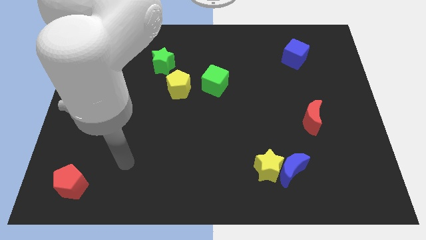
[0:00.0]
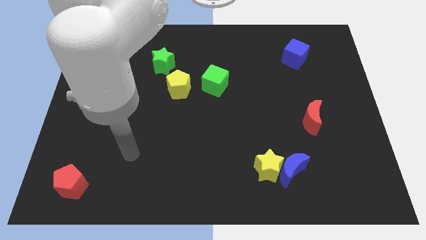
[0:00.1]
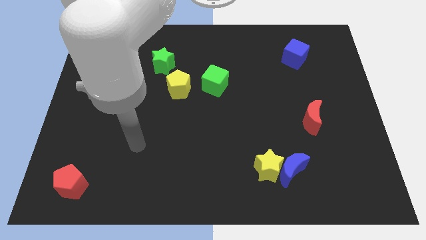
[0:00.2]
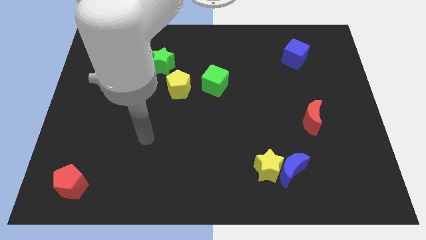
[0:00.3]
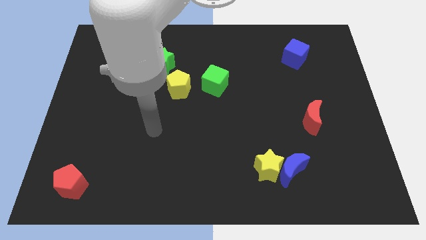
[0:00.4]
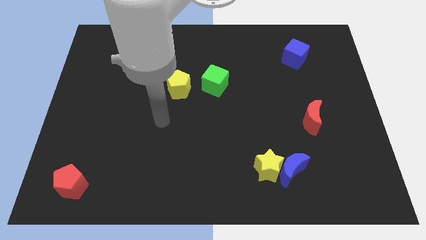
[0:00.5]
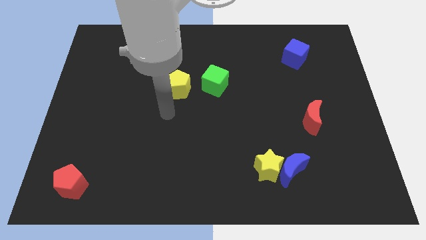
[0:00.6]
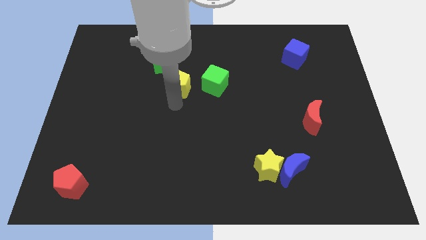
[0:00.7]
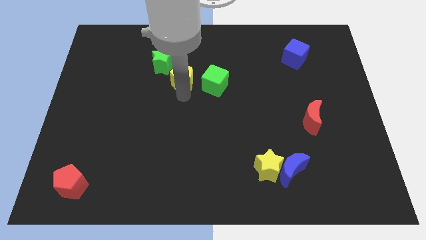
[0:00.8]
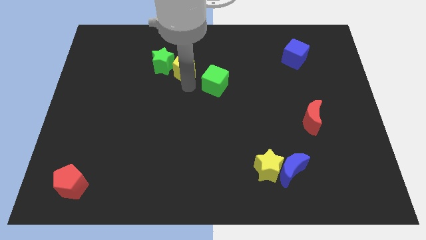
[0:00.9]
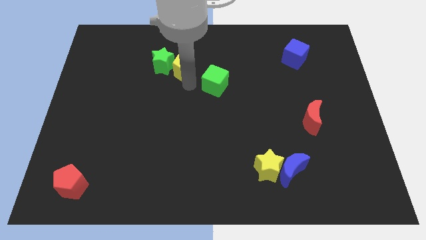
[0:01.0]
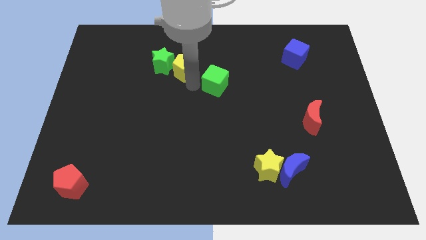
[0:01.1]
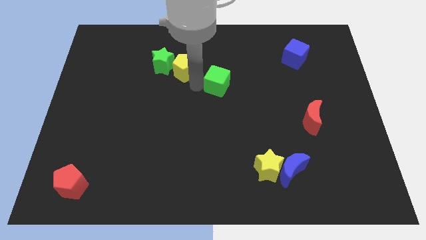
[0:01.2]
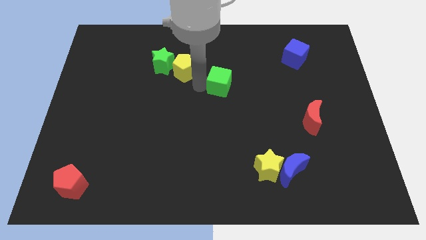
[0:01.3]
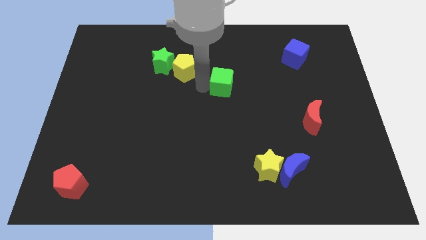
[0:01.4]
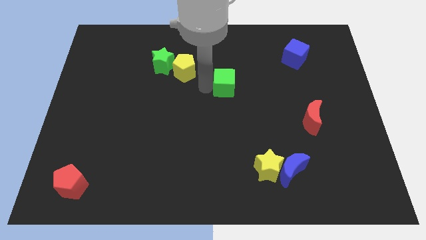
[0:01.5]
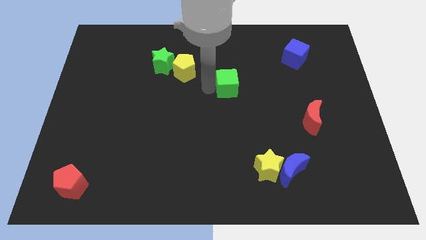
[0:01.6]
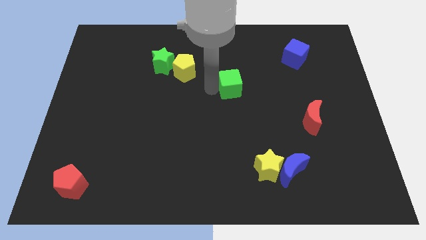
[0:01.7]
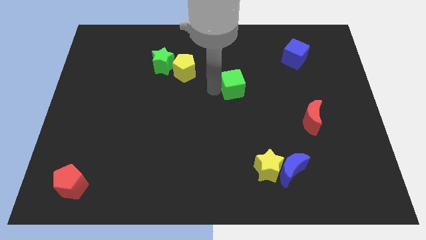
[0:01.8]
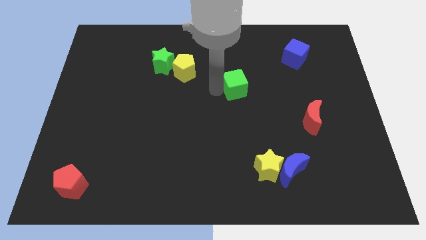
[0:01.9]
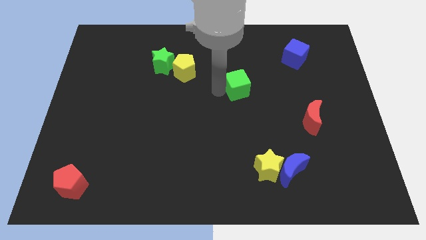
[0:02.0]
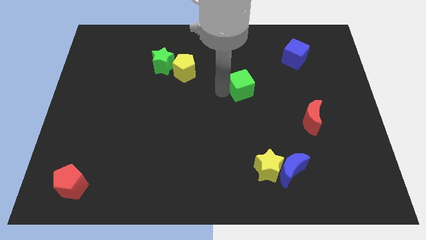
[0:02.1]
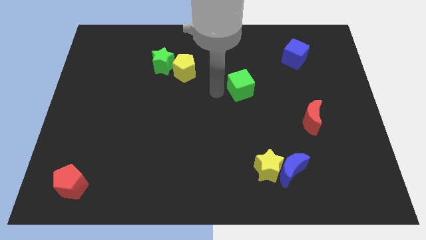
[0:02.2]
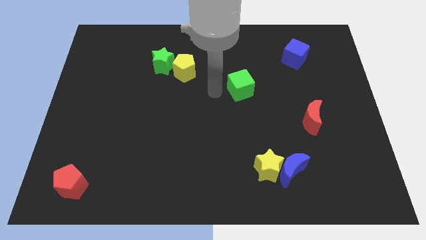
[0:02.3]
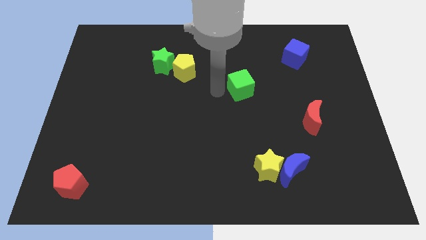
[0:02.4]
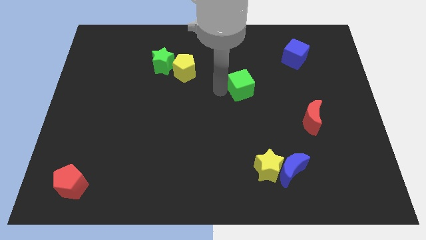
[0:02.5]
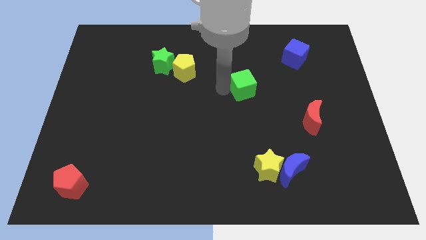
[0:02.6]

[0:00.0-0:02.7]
slide the green cube slightly right

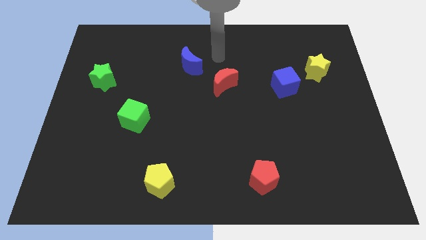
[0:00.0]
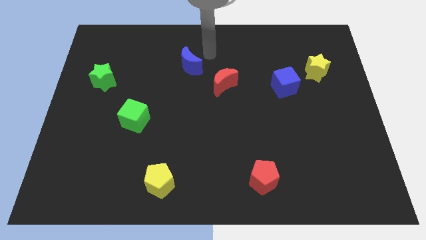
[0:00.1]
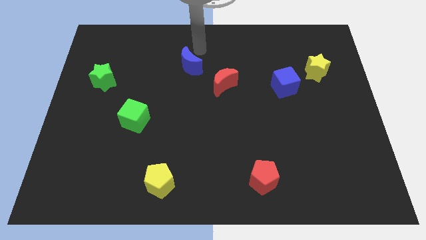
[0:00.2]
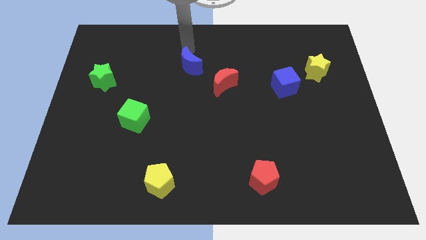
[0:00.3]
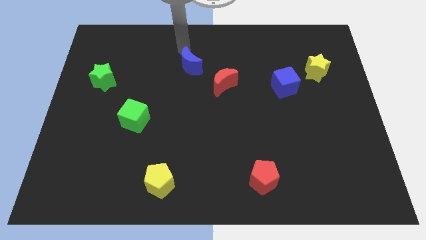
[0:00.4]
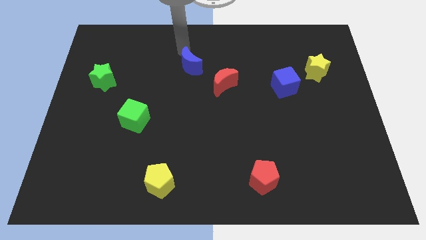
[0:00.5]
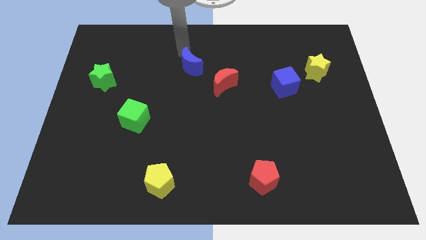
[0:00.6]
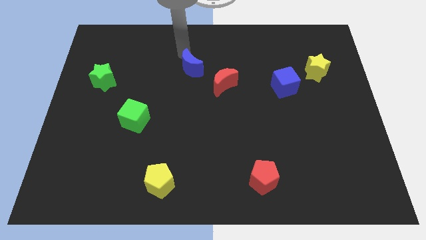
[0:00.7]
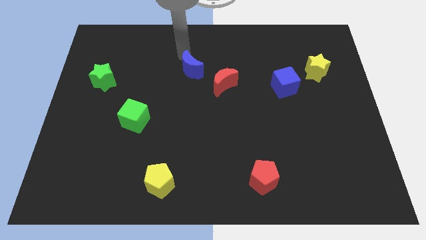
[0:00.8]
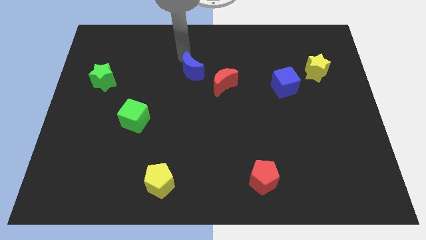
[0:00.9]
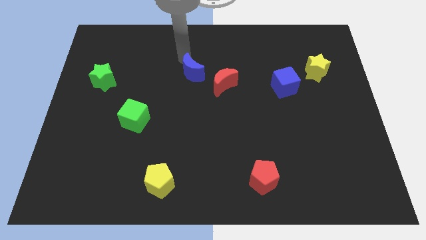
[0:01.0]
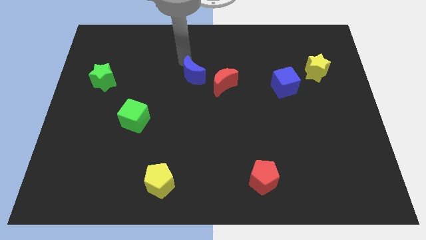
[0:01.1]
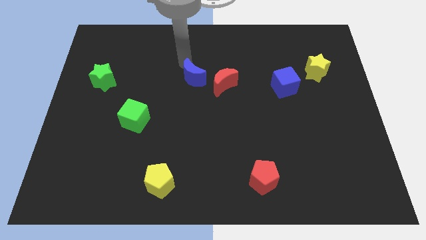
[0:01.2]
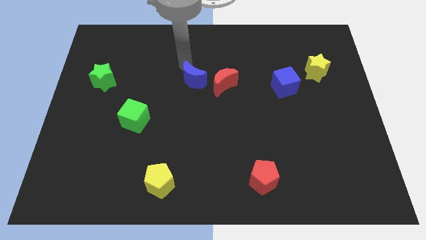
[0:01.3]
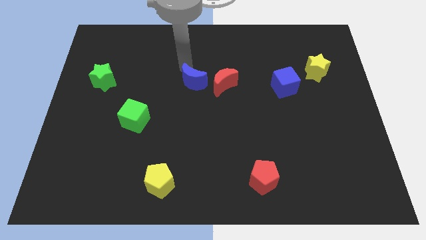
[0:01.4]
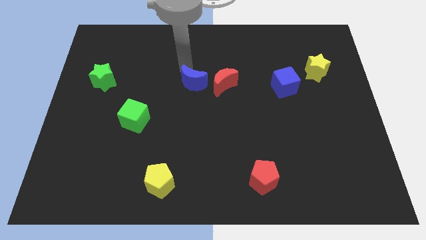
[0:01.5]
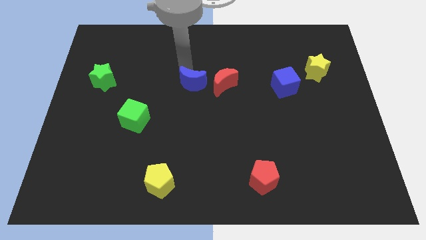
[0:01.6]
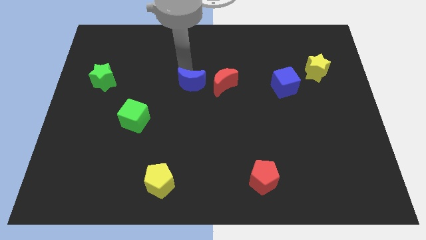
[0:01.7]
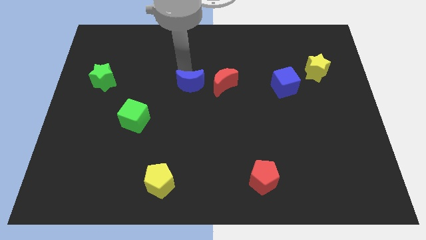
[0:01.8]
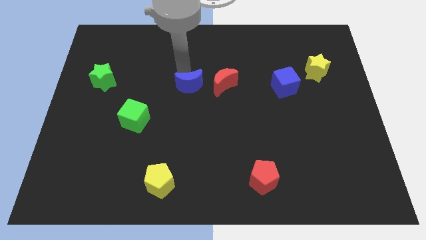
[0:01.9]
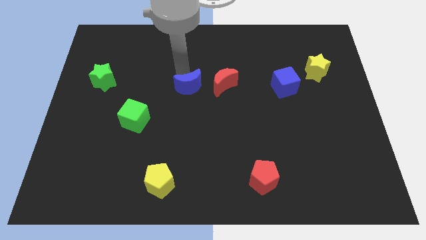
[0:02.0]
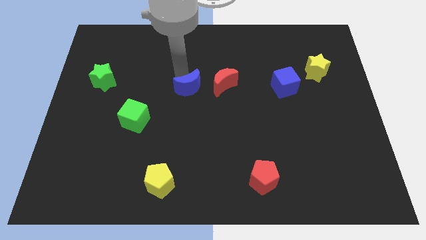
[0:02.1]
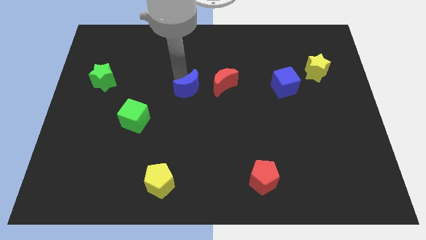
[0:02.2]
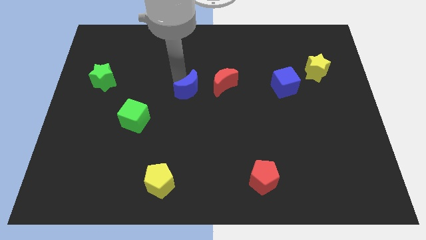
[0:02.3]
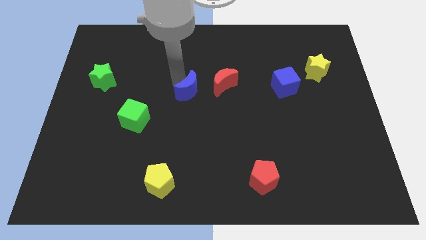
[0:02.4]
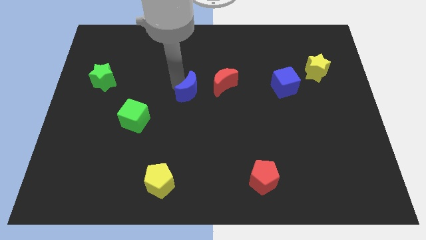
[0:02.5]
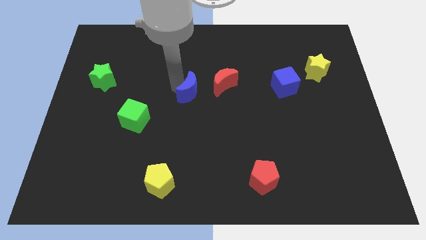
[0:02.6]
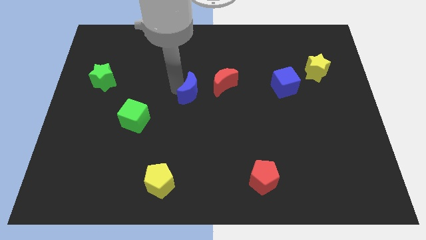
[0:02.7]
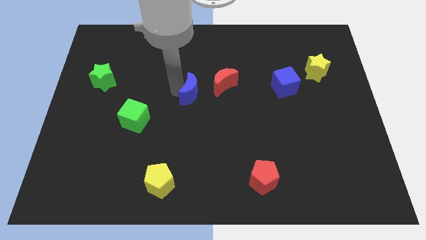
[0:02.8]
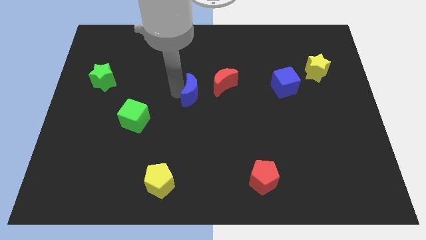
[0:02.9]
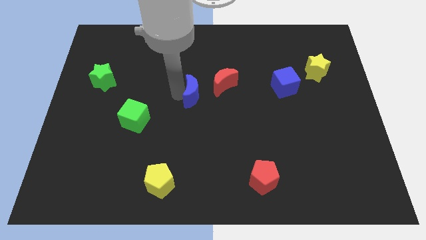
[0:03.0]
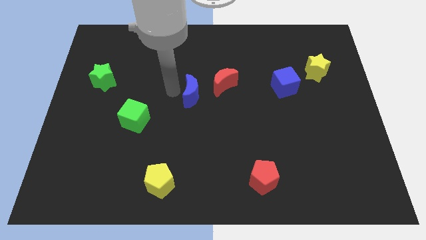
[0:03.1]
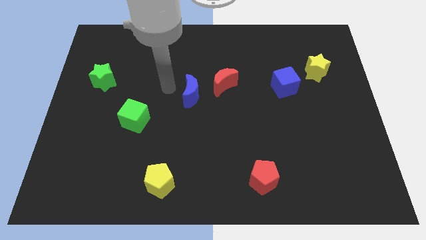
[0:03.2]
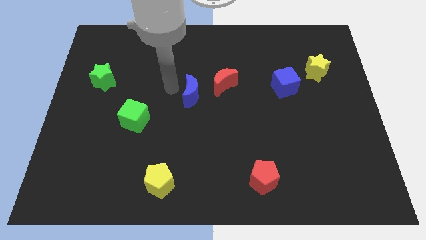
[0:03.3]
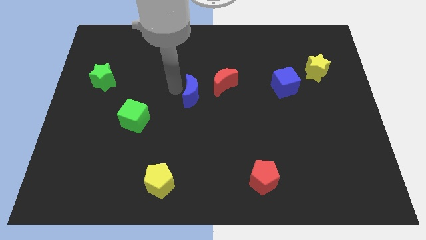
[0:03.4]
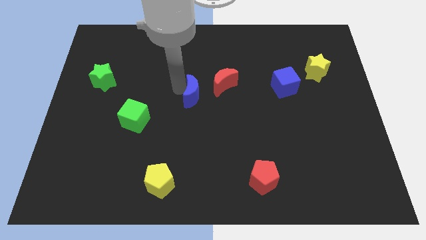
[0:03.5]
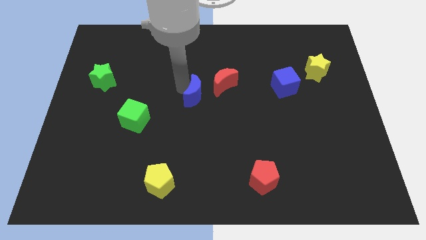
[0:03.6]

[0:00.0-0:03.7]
slightly slide the blue moon down and to the right

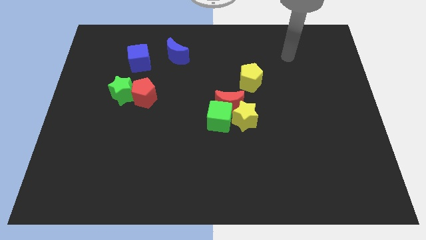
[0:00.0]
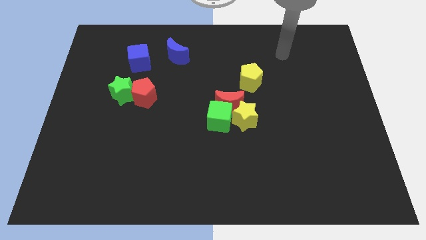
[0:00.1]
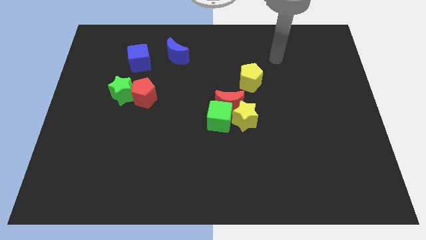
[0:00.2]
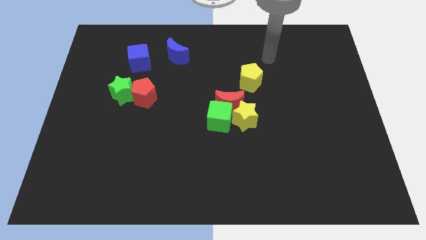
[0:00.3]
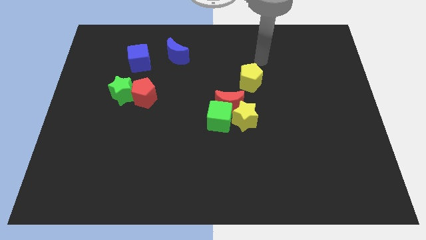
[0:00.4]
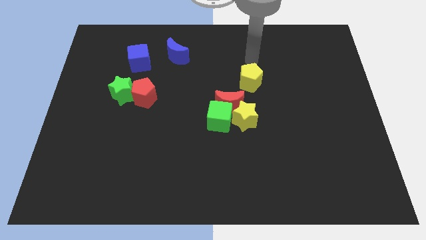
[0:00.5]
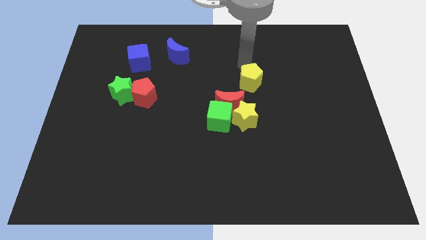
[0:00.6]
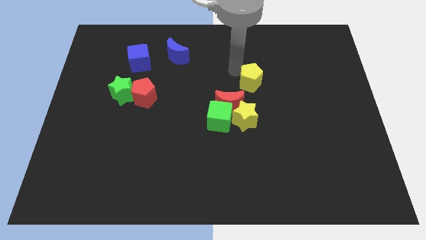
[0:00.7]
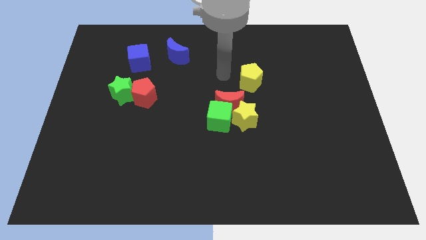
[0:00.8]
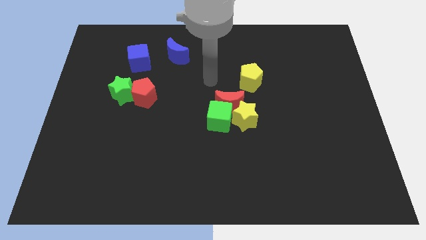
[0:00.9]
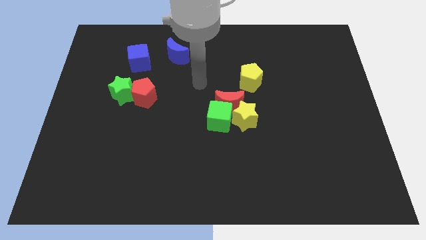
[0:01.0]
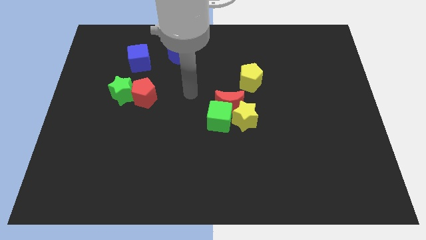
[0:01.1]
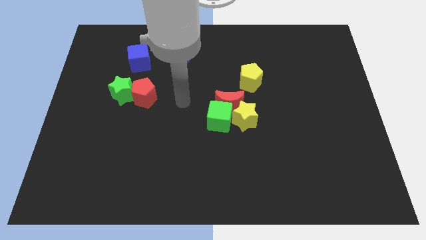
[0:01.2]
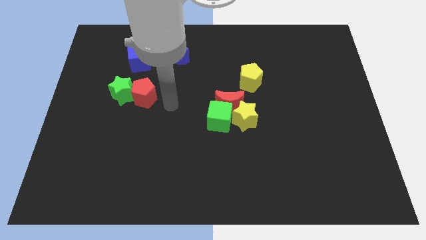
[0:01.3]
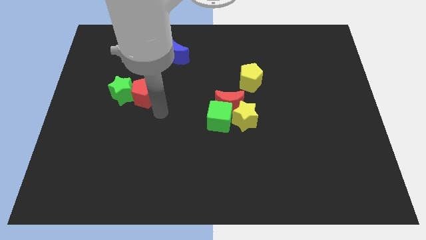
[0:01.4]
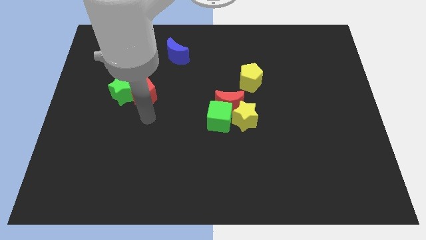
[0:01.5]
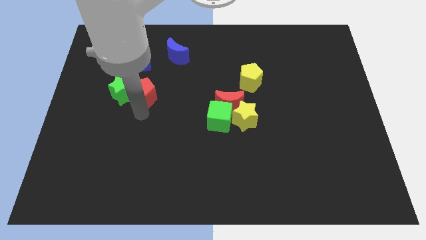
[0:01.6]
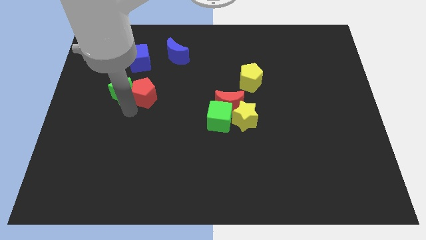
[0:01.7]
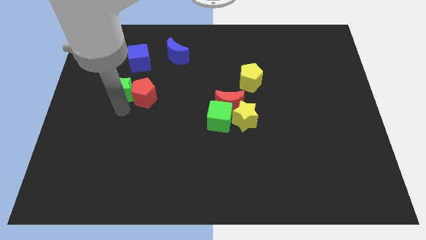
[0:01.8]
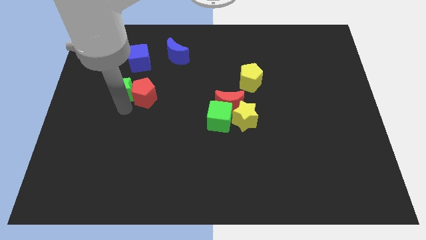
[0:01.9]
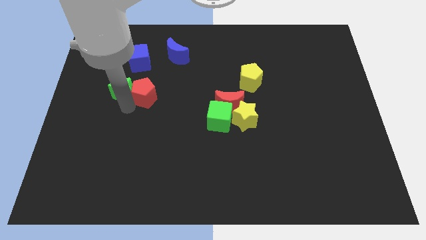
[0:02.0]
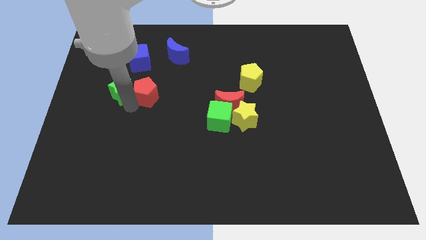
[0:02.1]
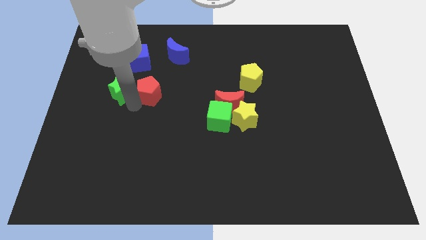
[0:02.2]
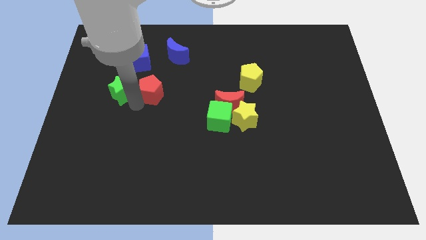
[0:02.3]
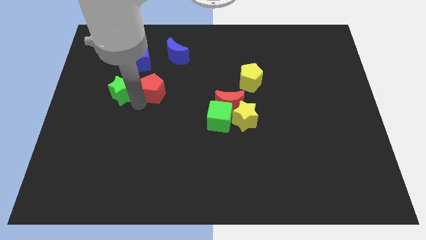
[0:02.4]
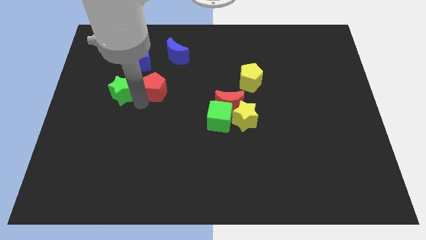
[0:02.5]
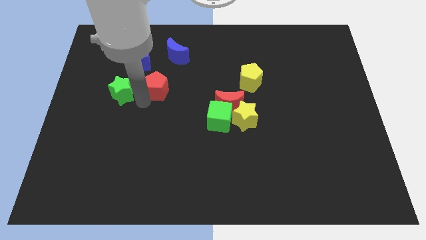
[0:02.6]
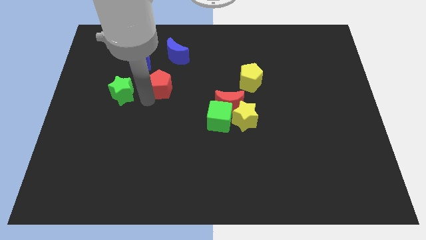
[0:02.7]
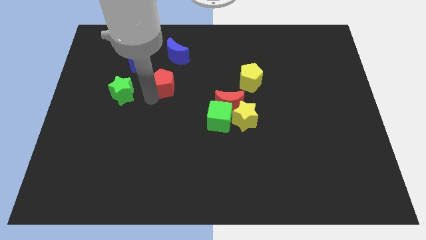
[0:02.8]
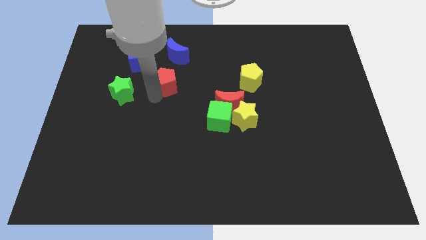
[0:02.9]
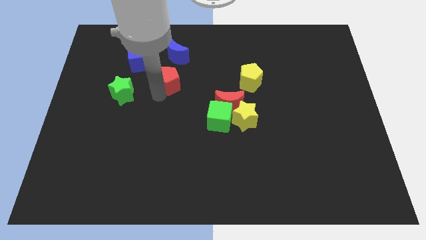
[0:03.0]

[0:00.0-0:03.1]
slide the red pentagon a little bit up and to the right diagonally
